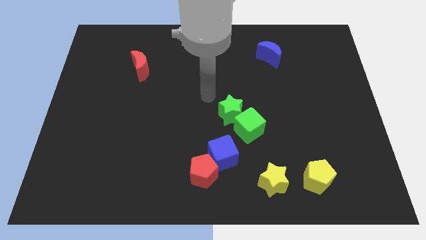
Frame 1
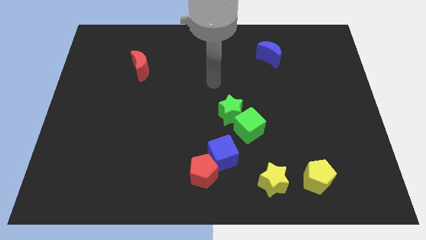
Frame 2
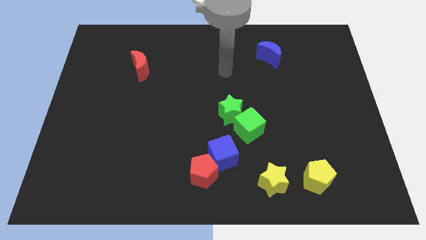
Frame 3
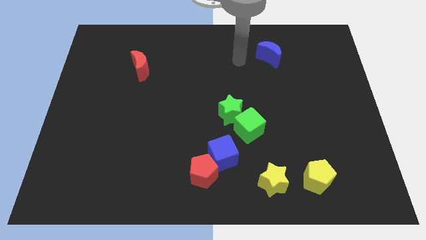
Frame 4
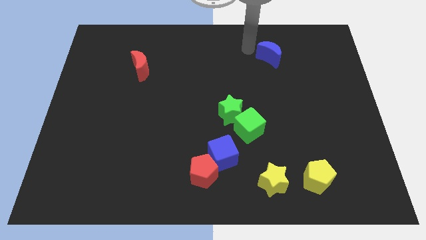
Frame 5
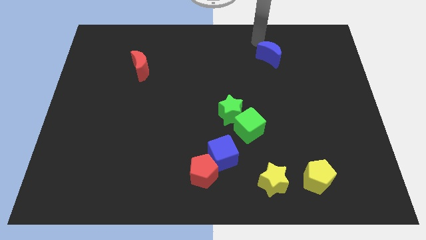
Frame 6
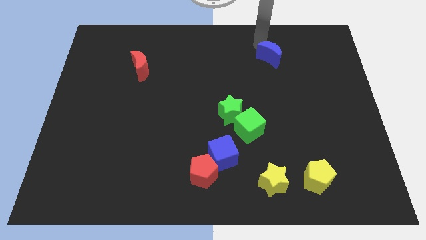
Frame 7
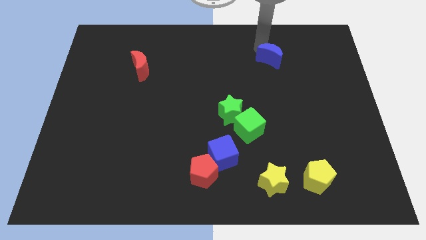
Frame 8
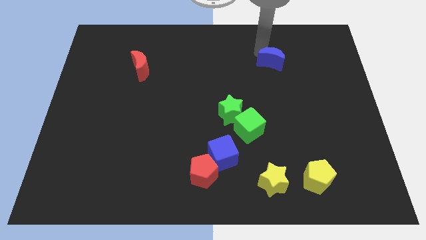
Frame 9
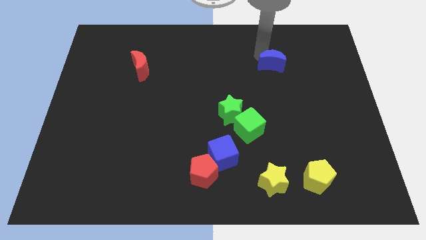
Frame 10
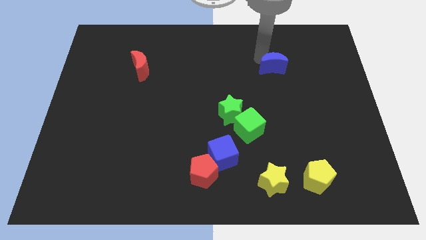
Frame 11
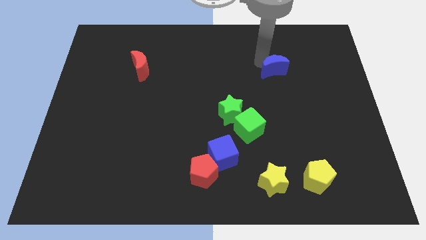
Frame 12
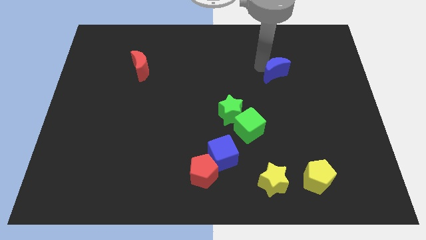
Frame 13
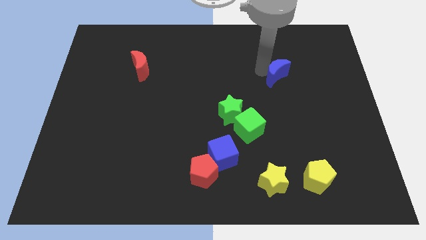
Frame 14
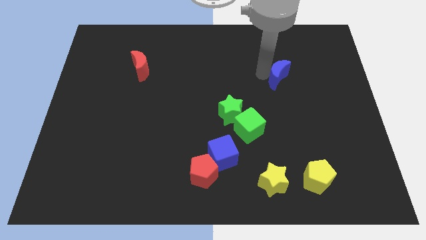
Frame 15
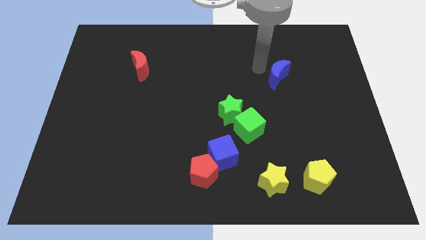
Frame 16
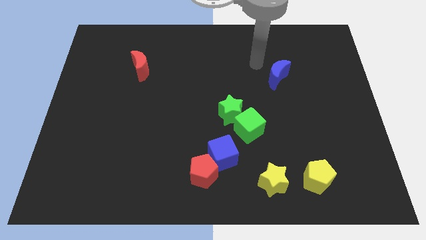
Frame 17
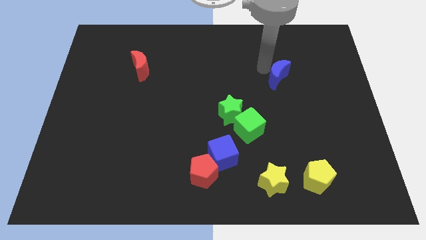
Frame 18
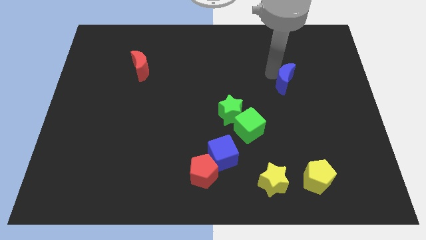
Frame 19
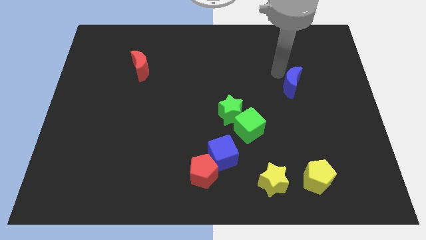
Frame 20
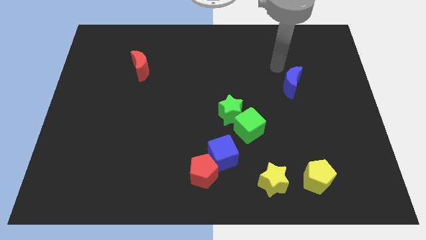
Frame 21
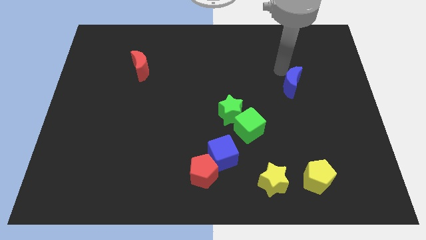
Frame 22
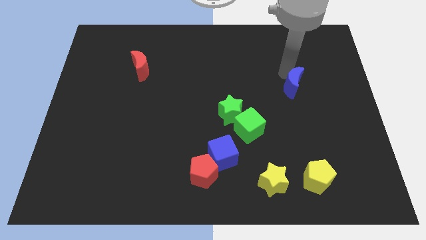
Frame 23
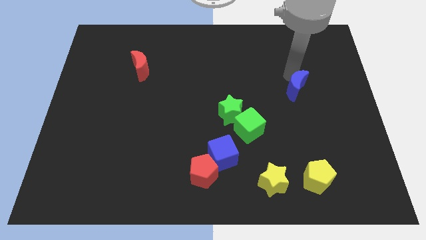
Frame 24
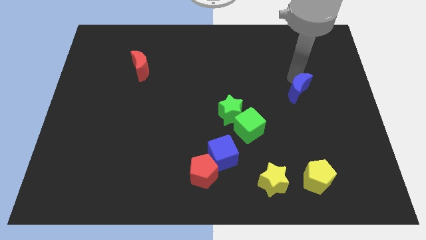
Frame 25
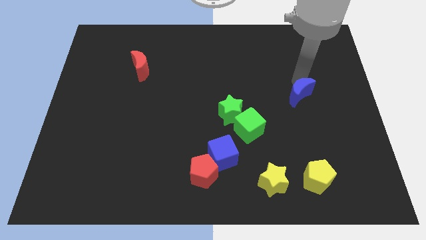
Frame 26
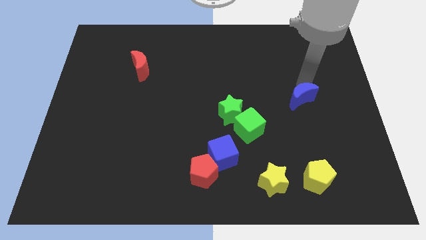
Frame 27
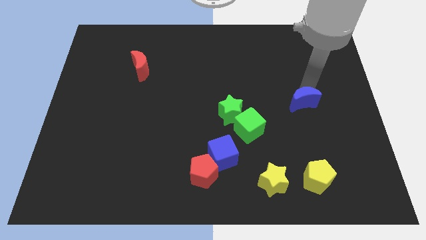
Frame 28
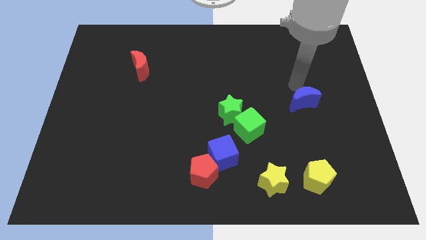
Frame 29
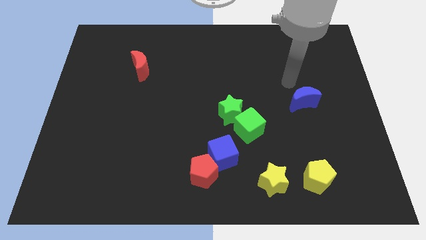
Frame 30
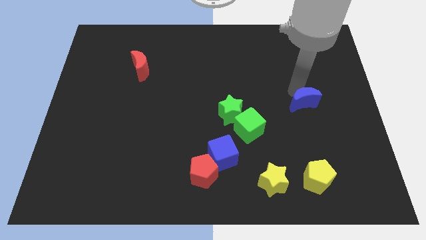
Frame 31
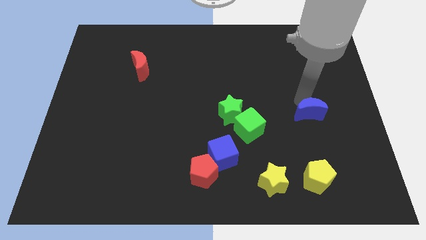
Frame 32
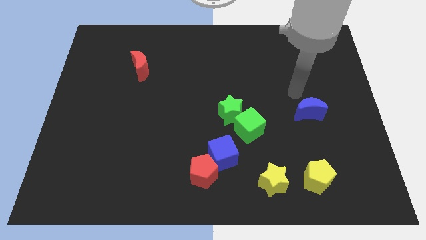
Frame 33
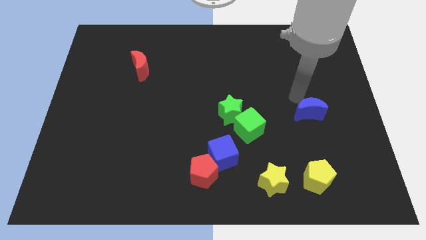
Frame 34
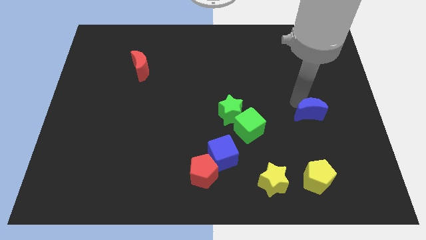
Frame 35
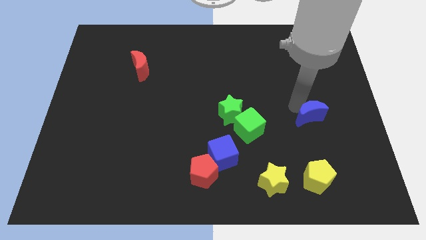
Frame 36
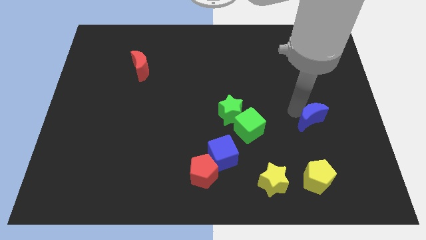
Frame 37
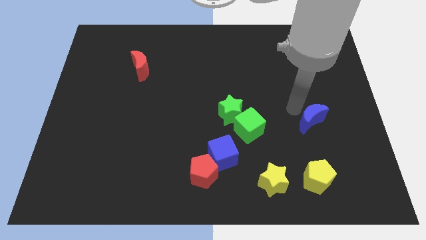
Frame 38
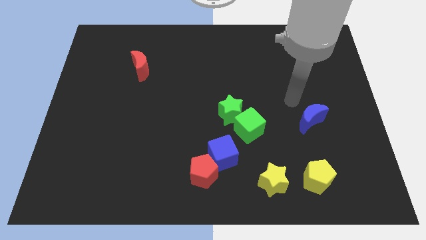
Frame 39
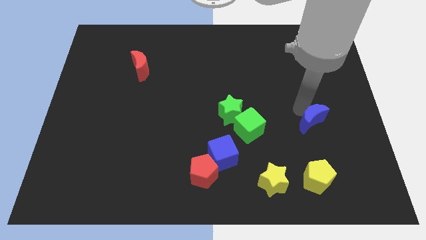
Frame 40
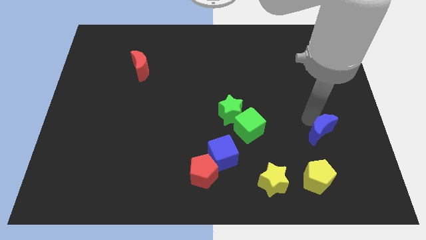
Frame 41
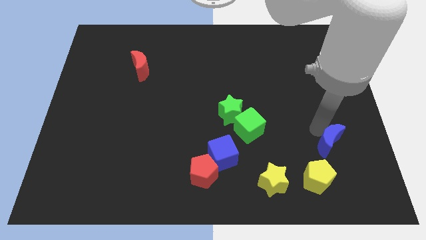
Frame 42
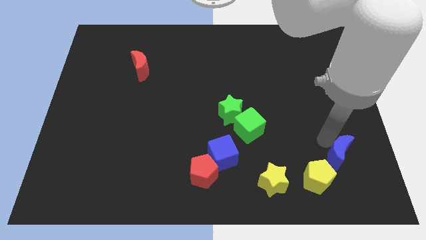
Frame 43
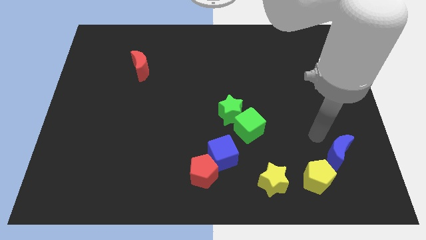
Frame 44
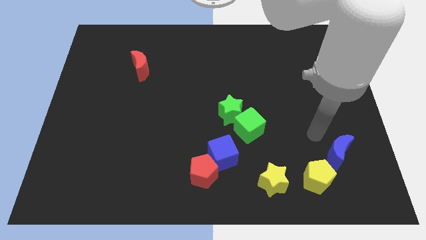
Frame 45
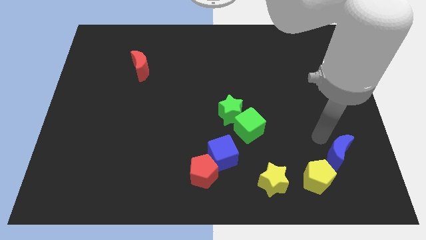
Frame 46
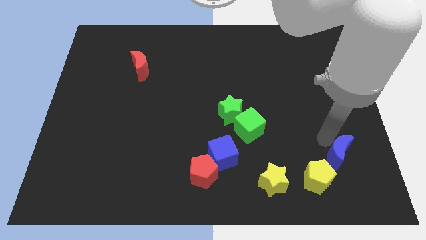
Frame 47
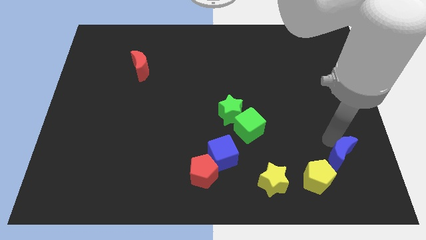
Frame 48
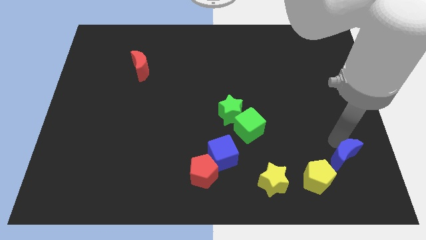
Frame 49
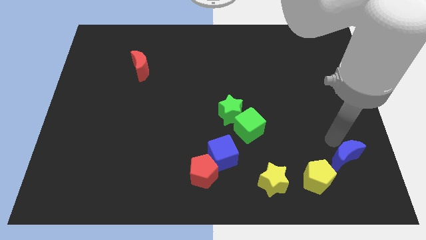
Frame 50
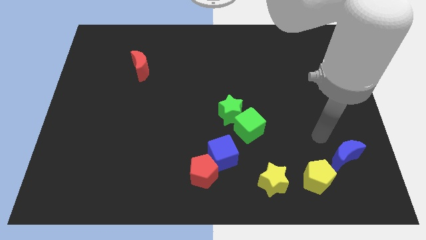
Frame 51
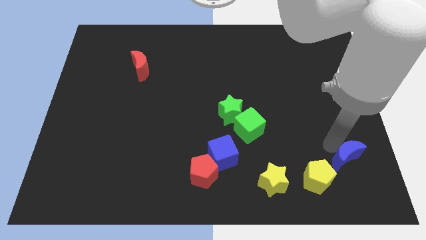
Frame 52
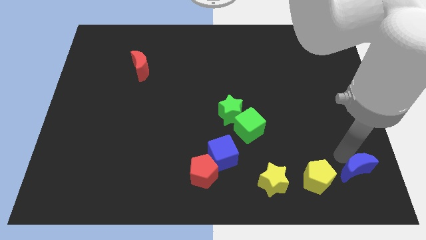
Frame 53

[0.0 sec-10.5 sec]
push the blue moon to the bottom right

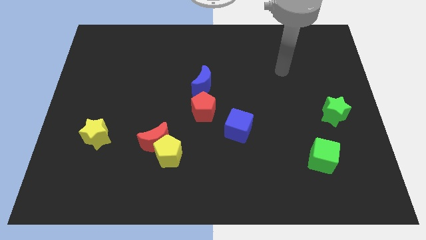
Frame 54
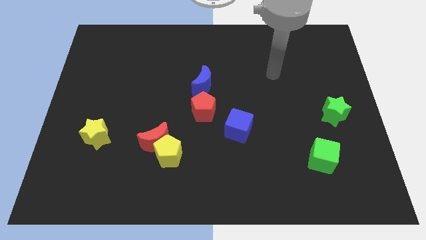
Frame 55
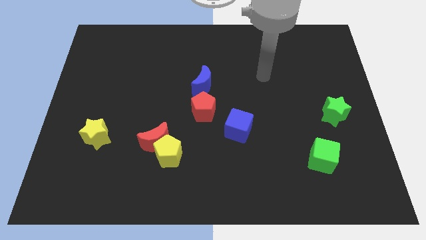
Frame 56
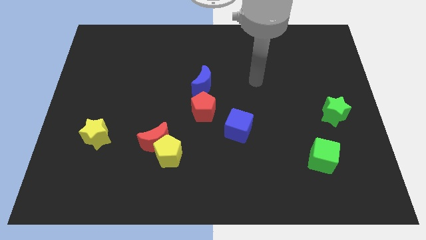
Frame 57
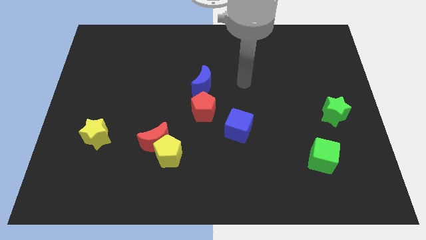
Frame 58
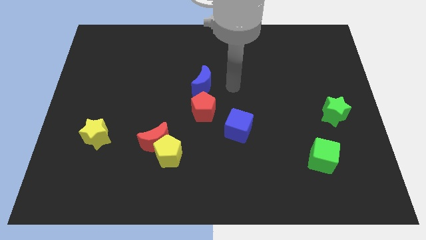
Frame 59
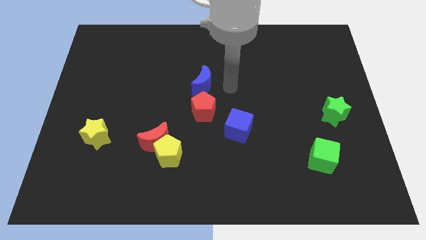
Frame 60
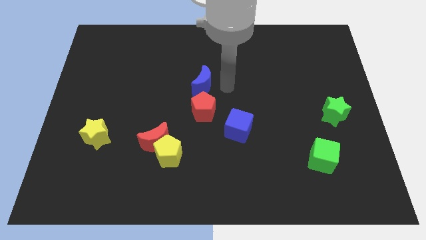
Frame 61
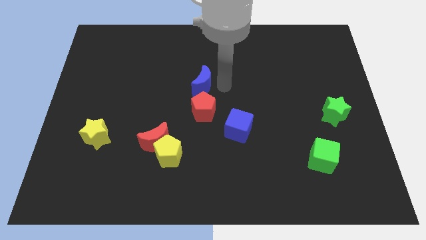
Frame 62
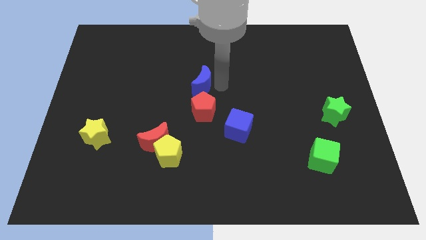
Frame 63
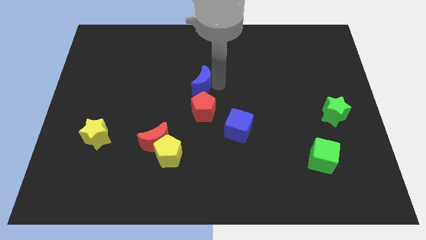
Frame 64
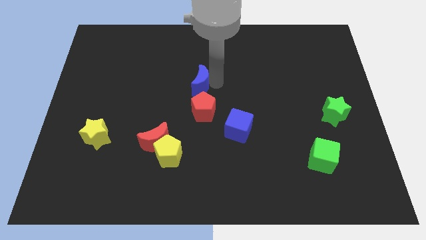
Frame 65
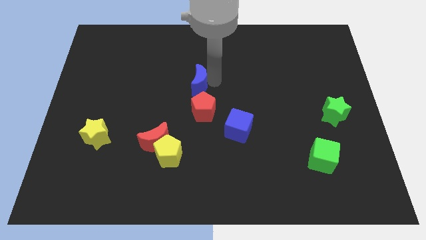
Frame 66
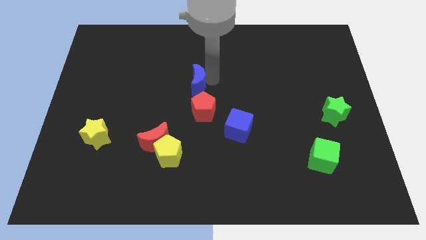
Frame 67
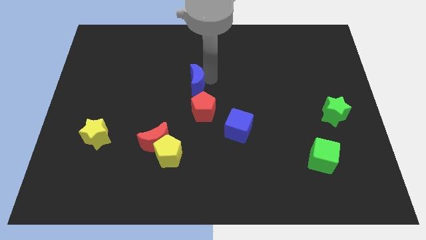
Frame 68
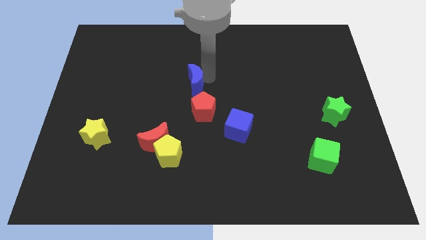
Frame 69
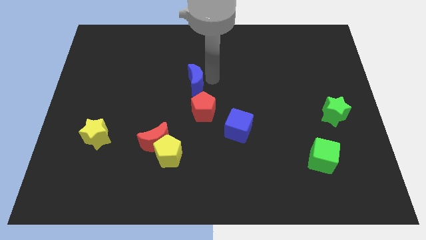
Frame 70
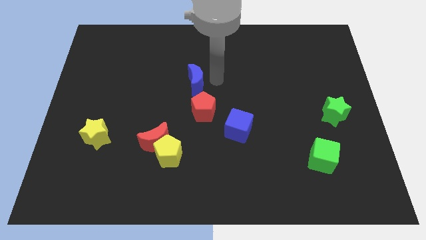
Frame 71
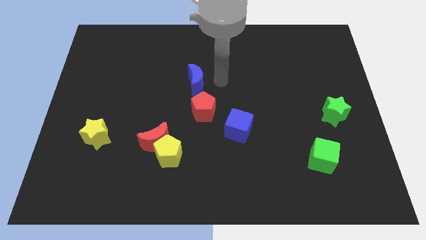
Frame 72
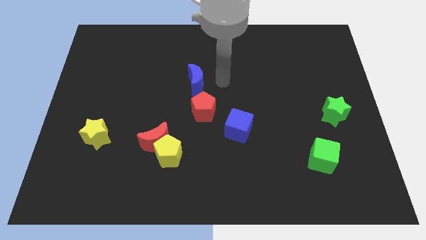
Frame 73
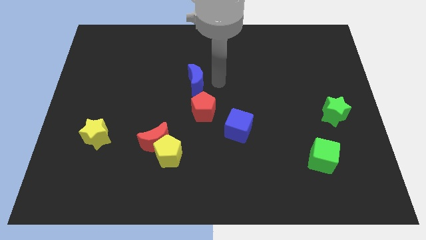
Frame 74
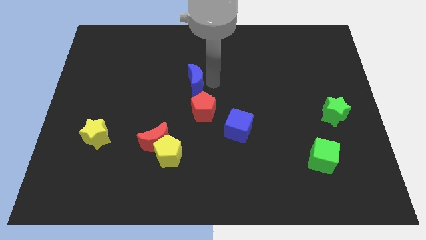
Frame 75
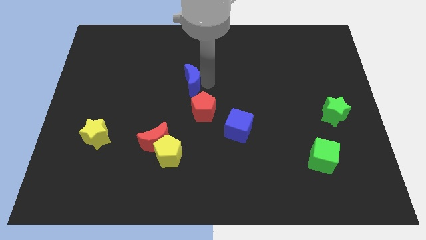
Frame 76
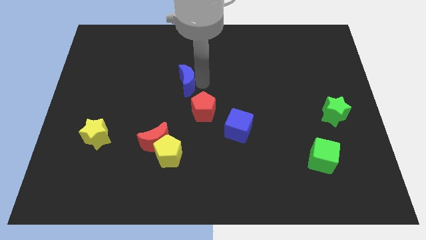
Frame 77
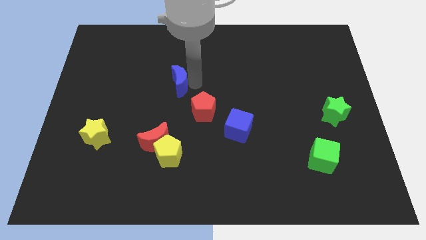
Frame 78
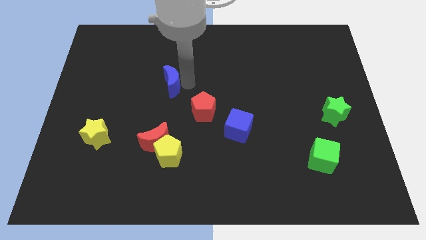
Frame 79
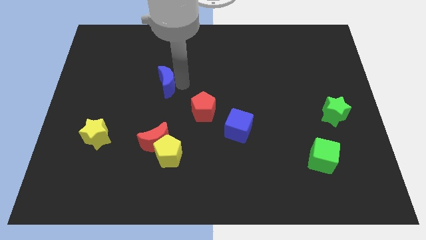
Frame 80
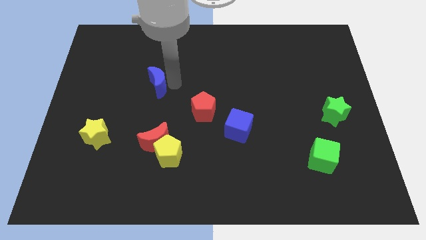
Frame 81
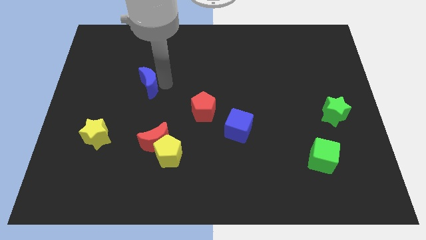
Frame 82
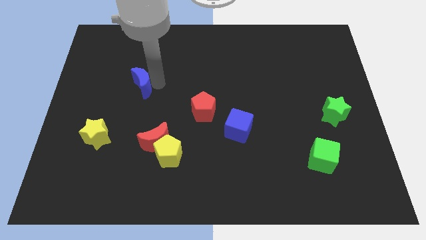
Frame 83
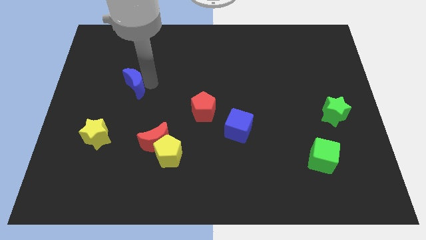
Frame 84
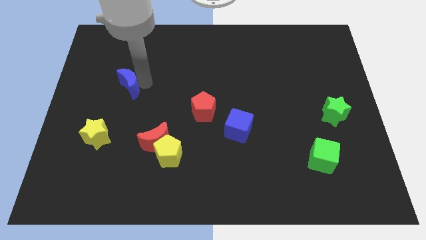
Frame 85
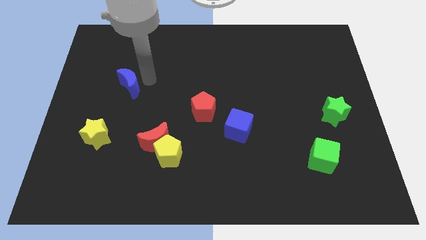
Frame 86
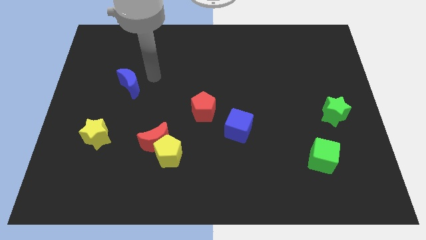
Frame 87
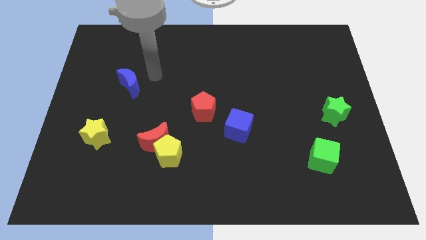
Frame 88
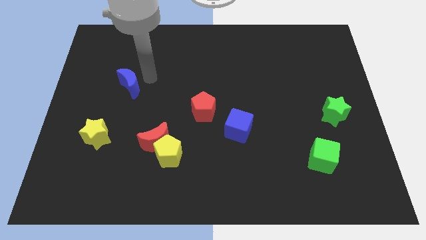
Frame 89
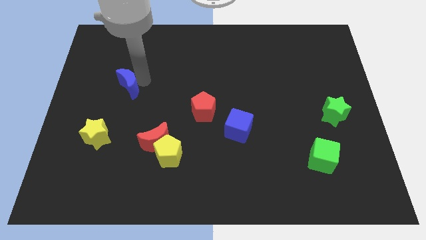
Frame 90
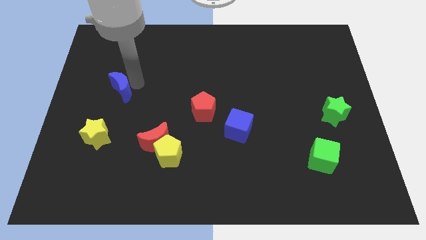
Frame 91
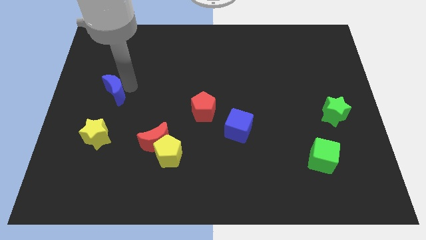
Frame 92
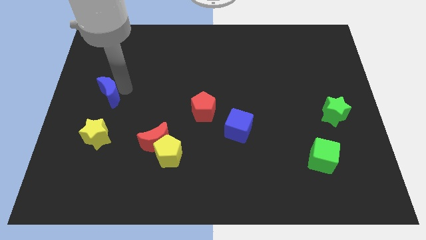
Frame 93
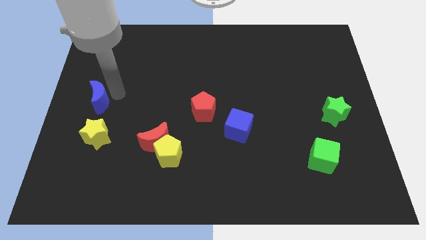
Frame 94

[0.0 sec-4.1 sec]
move the blue moon to the center left
